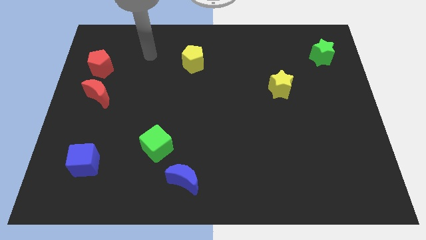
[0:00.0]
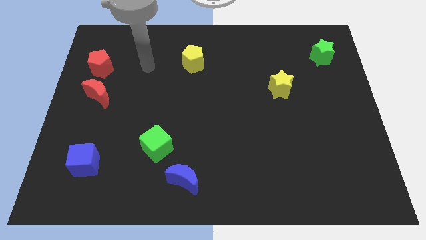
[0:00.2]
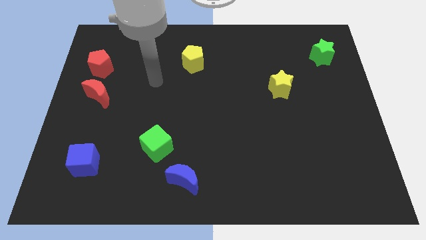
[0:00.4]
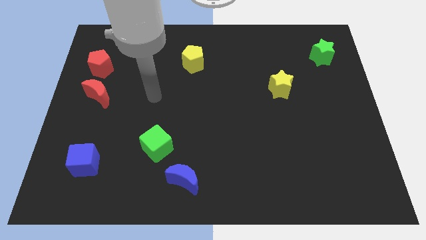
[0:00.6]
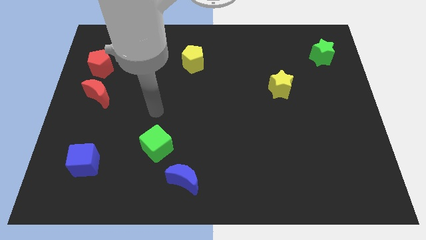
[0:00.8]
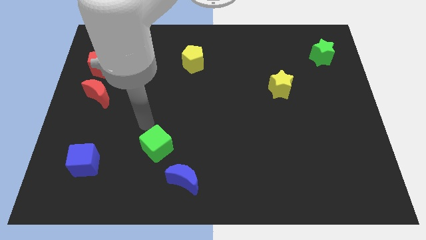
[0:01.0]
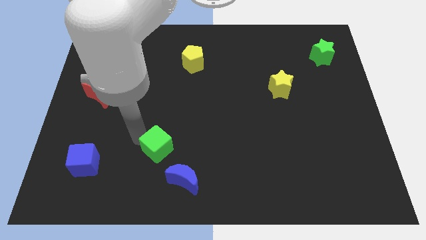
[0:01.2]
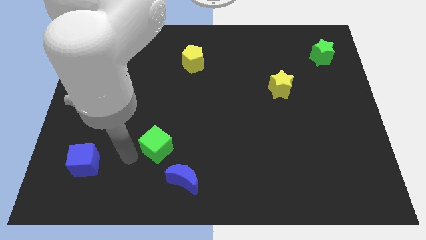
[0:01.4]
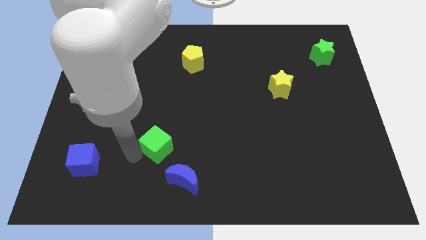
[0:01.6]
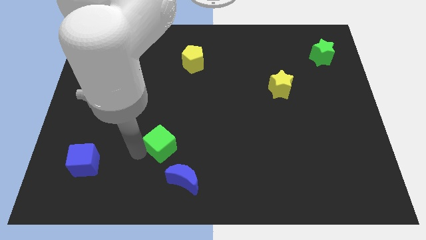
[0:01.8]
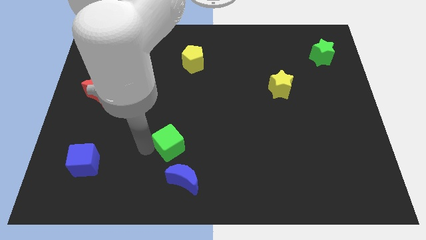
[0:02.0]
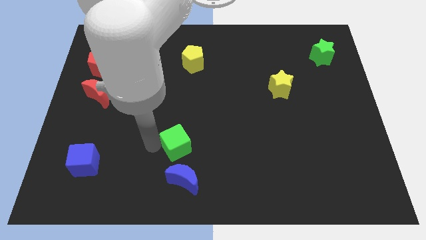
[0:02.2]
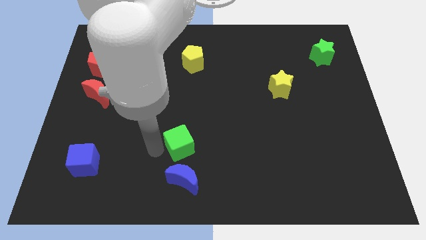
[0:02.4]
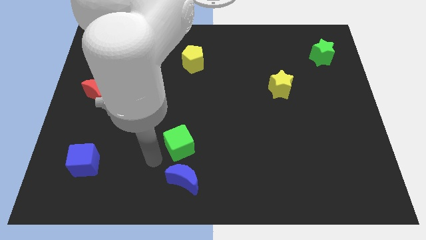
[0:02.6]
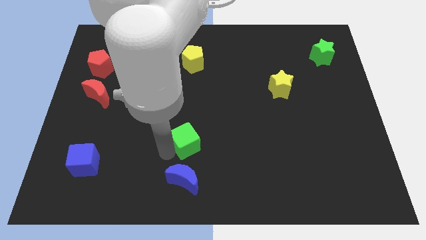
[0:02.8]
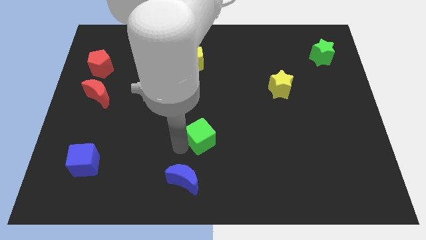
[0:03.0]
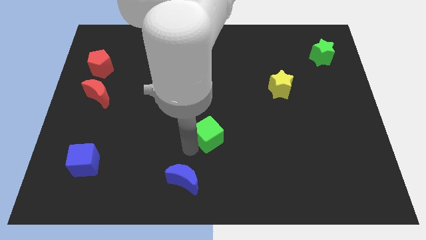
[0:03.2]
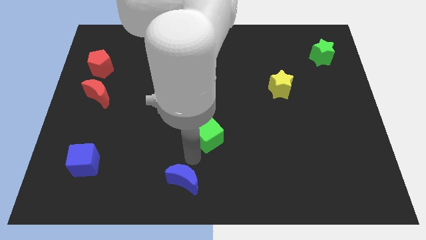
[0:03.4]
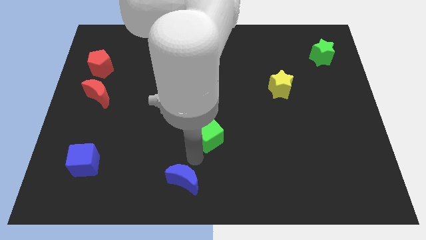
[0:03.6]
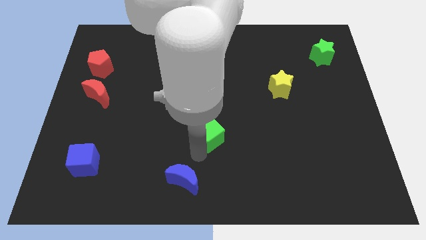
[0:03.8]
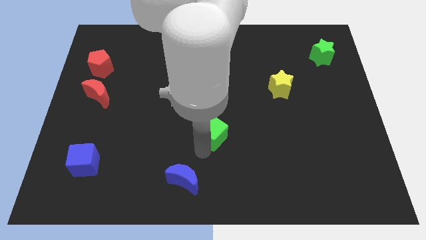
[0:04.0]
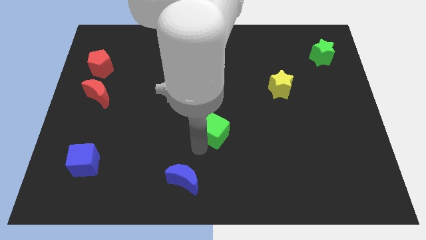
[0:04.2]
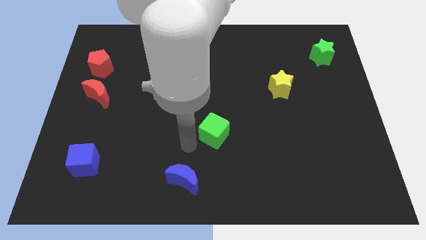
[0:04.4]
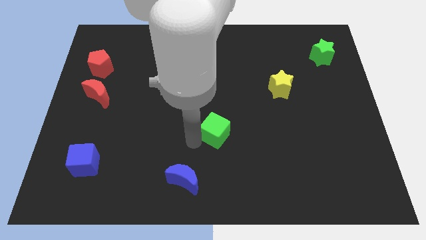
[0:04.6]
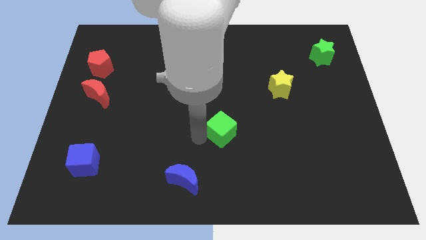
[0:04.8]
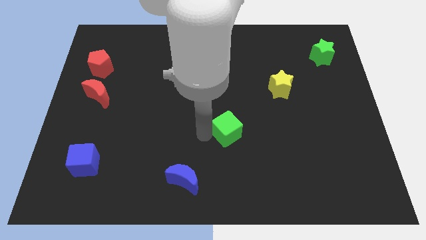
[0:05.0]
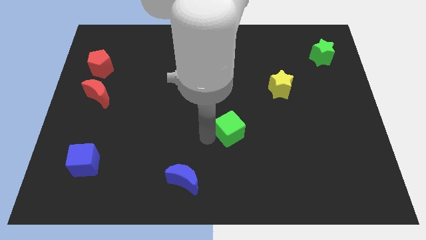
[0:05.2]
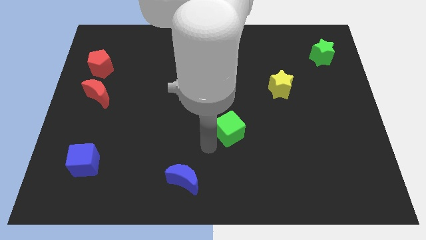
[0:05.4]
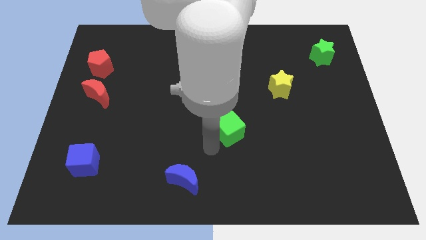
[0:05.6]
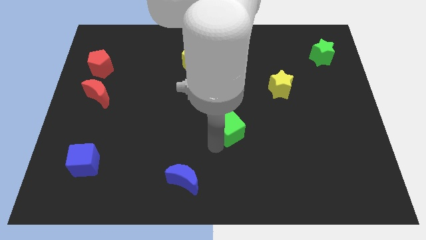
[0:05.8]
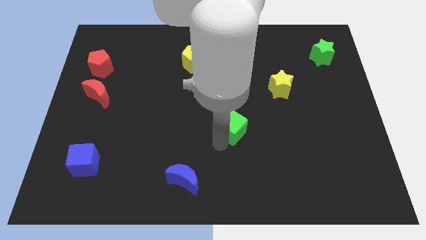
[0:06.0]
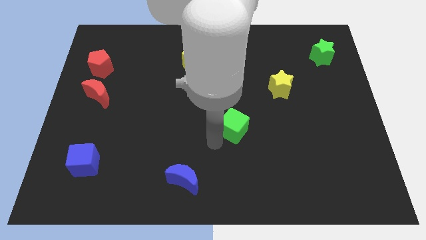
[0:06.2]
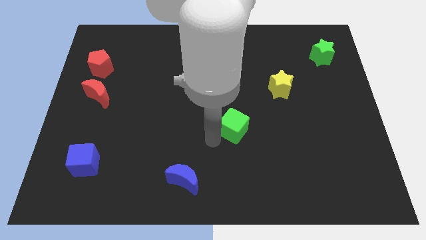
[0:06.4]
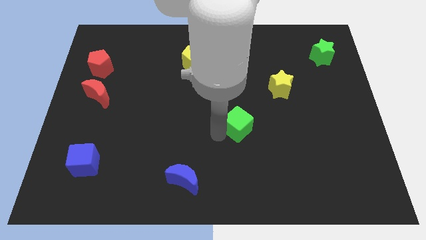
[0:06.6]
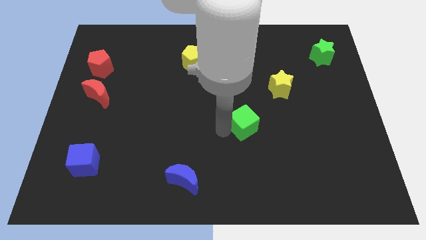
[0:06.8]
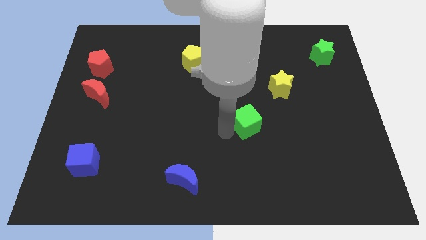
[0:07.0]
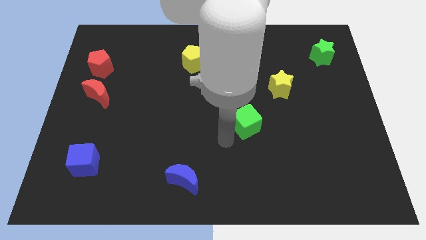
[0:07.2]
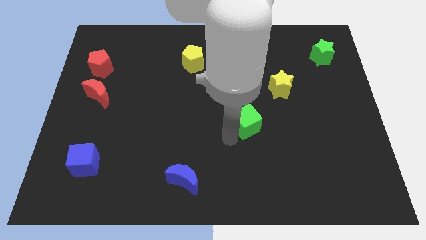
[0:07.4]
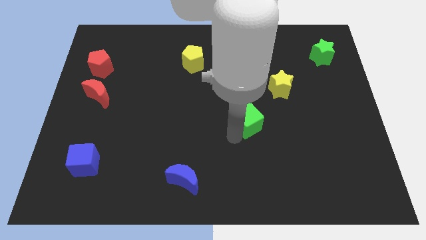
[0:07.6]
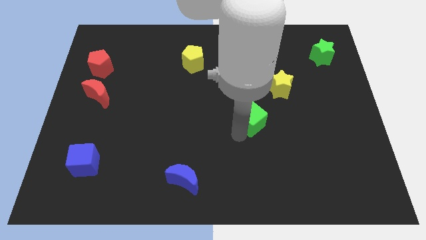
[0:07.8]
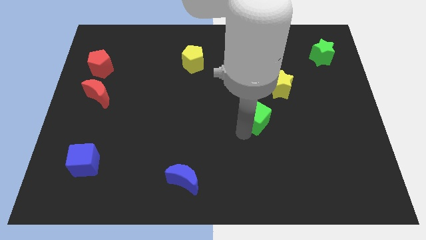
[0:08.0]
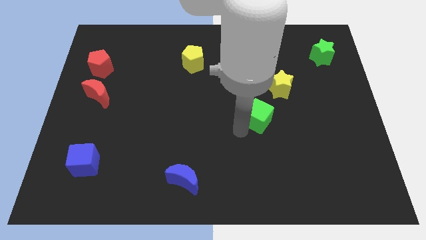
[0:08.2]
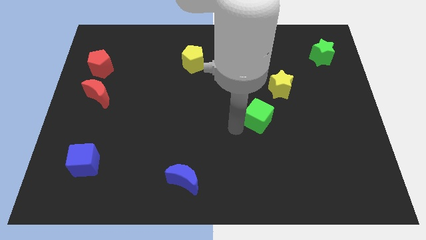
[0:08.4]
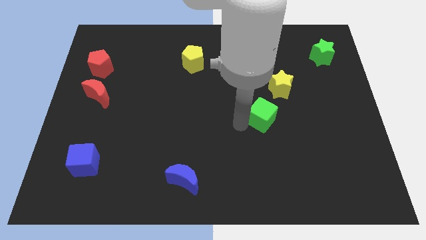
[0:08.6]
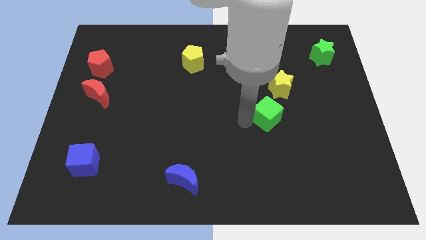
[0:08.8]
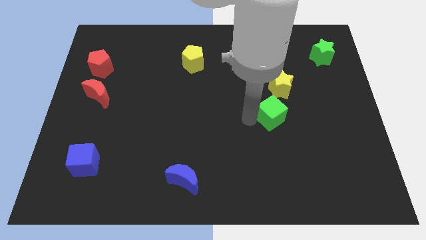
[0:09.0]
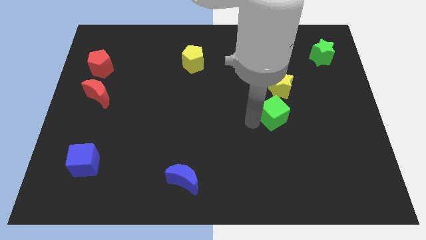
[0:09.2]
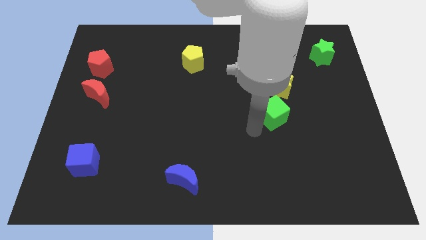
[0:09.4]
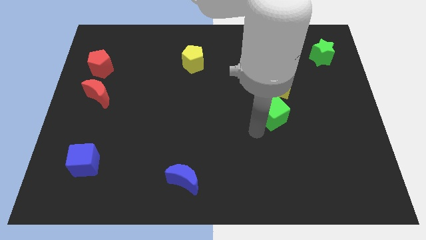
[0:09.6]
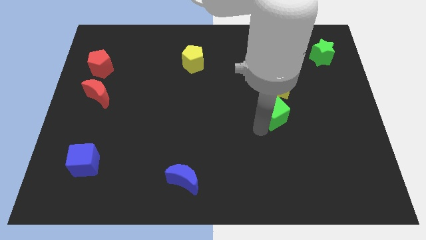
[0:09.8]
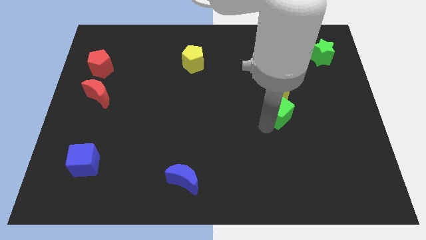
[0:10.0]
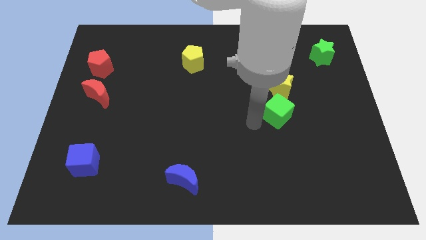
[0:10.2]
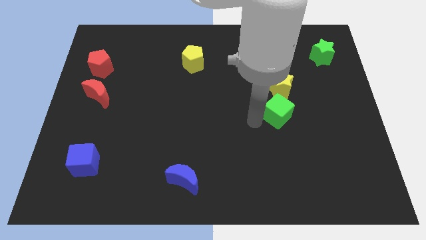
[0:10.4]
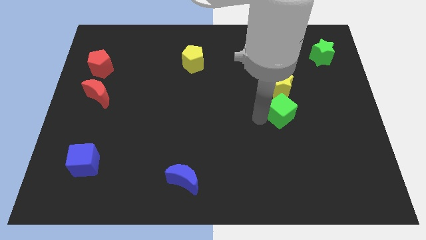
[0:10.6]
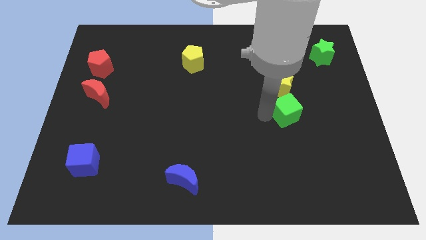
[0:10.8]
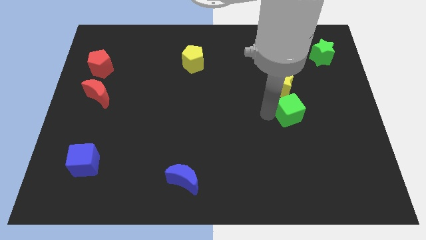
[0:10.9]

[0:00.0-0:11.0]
move the green cube to the bottom right of the yellow star

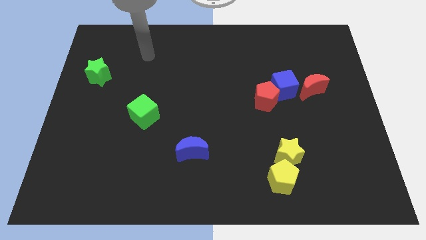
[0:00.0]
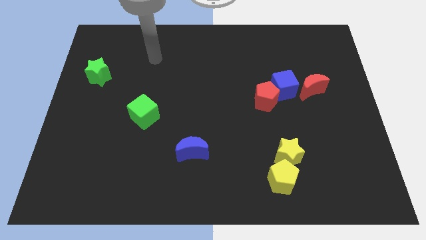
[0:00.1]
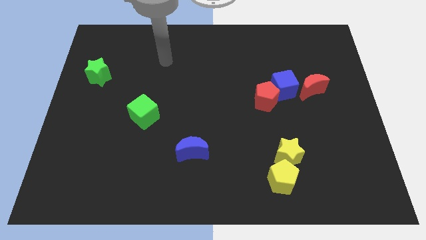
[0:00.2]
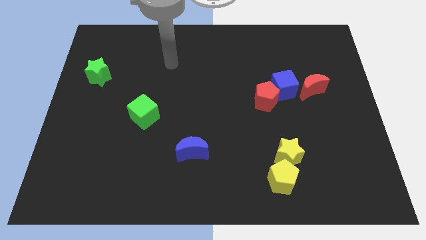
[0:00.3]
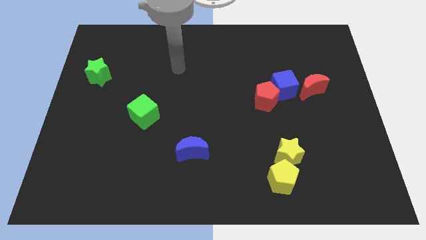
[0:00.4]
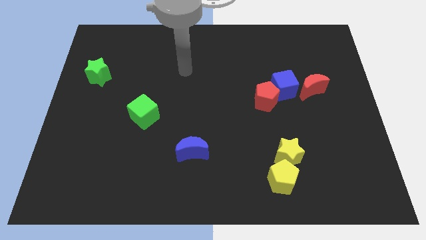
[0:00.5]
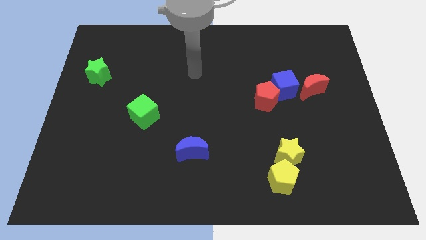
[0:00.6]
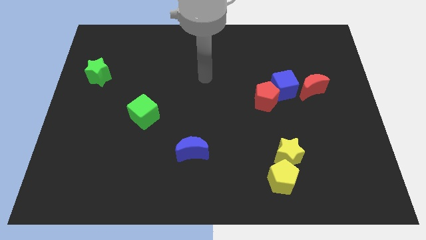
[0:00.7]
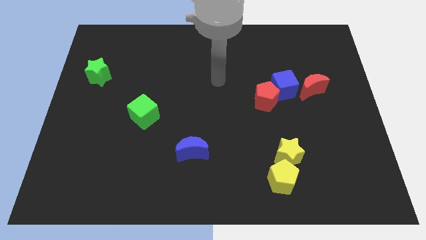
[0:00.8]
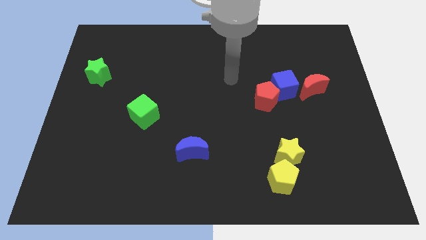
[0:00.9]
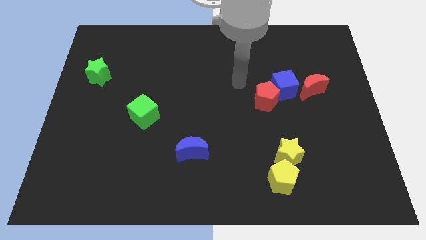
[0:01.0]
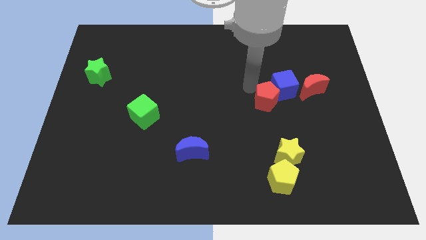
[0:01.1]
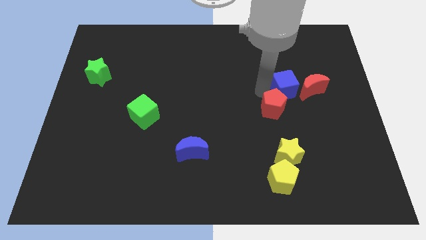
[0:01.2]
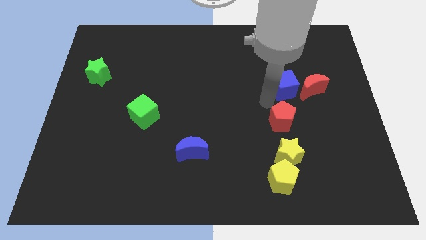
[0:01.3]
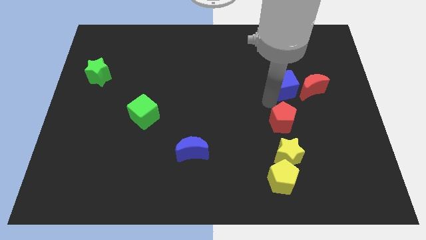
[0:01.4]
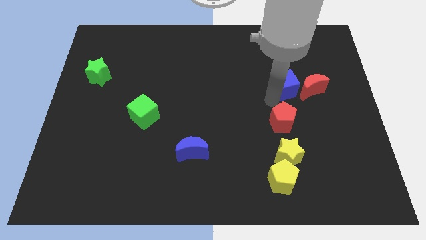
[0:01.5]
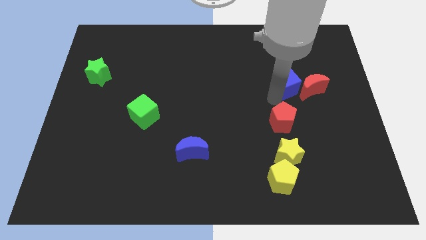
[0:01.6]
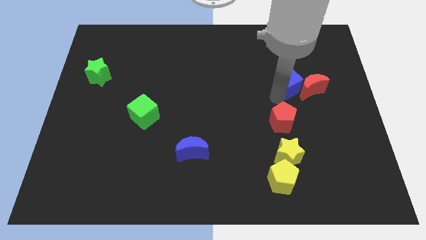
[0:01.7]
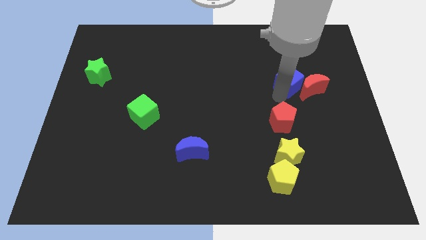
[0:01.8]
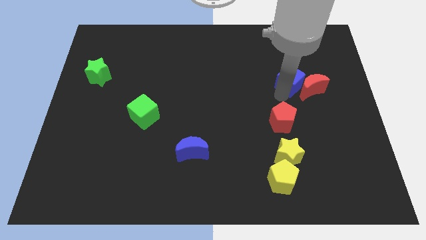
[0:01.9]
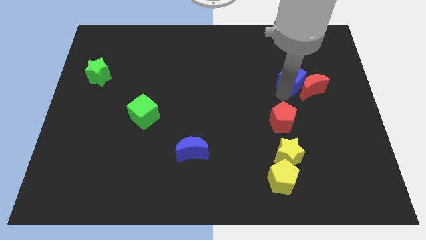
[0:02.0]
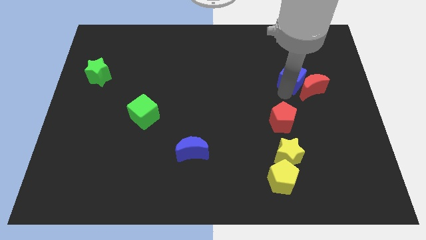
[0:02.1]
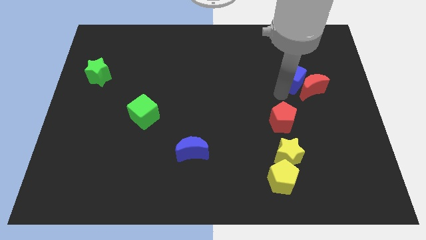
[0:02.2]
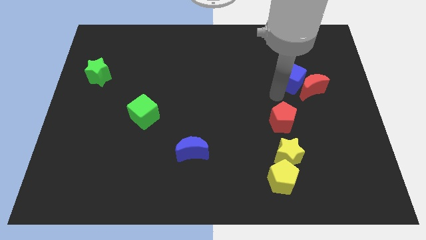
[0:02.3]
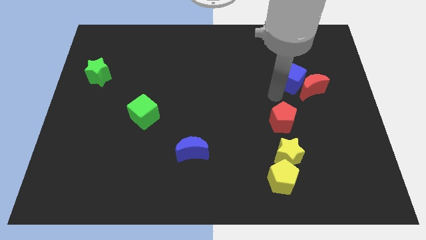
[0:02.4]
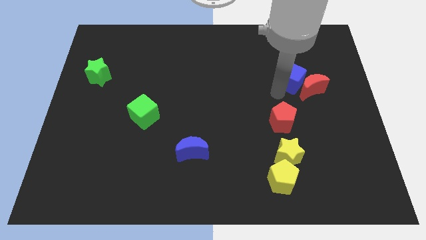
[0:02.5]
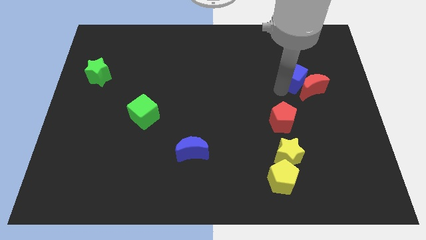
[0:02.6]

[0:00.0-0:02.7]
move the blue cube to the top side of the red moon
